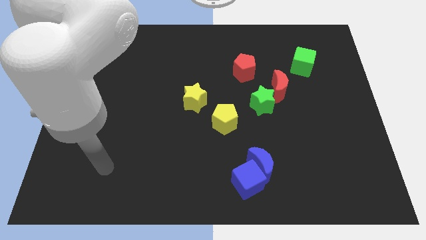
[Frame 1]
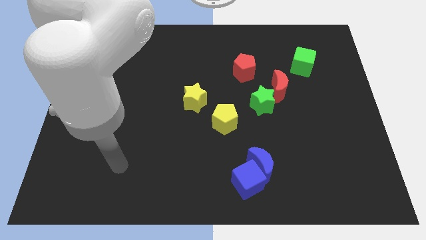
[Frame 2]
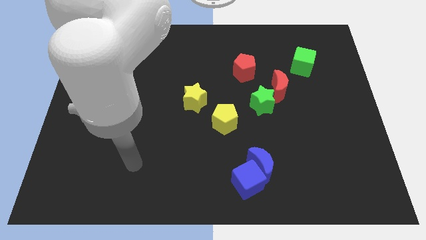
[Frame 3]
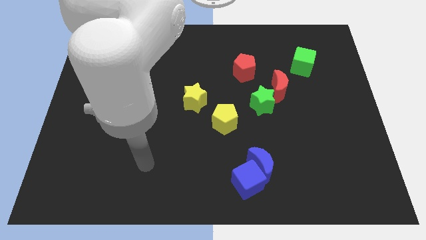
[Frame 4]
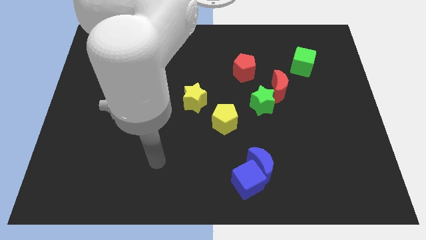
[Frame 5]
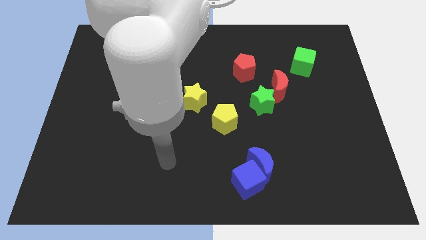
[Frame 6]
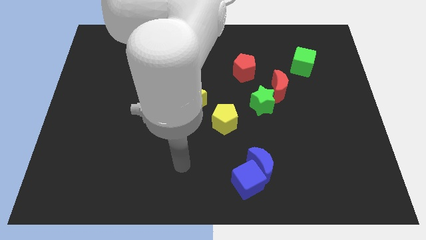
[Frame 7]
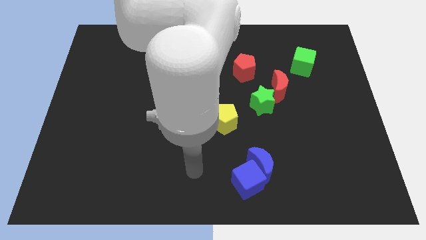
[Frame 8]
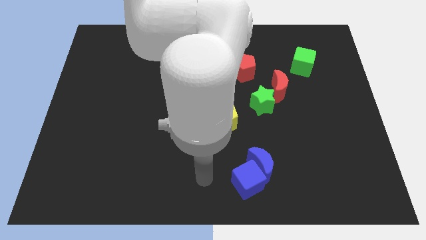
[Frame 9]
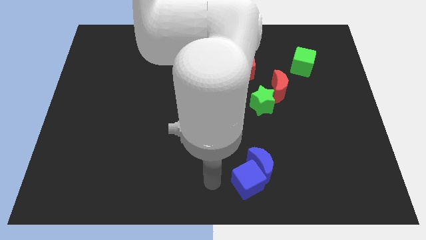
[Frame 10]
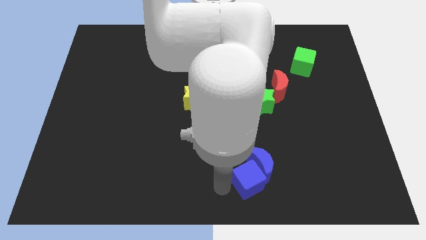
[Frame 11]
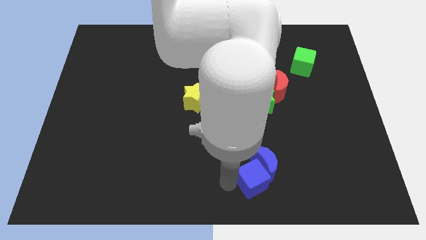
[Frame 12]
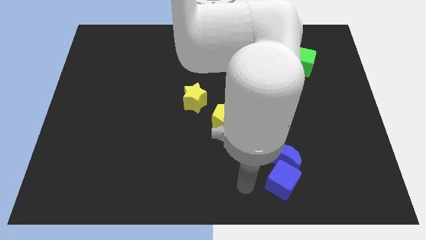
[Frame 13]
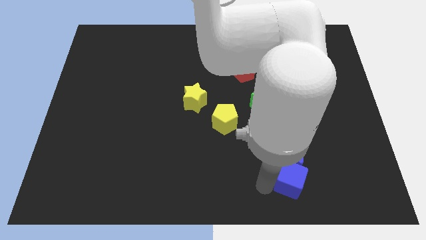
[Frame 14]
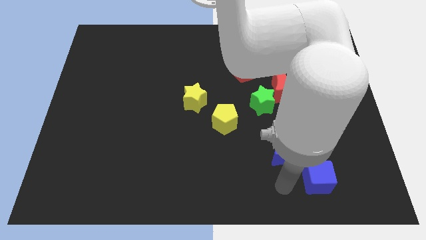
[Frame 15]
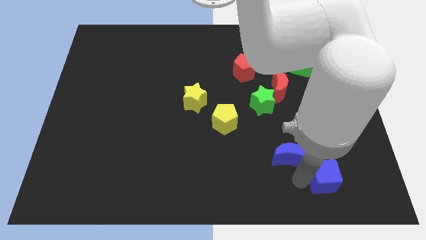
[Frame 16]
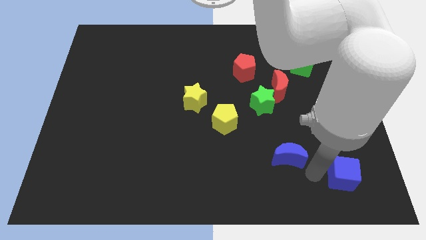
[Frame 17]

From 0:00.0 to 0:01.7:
move the blue moon away from the blue cube

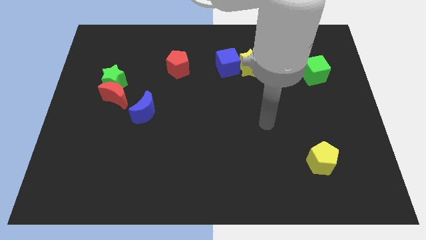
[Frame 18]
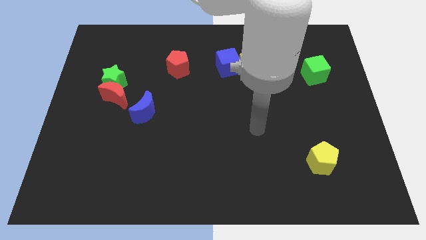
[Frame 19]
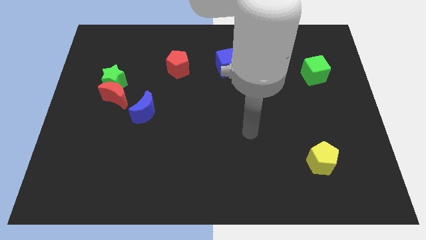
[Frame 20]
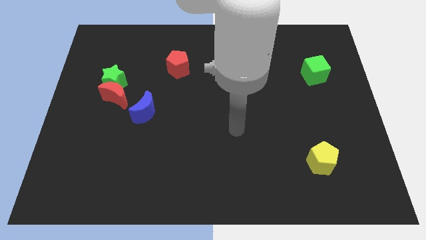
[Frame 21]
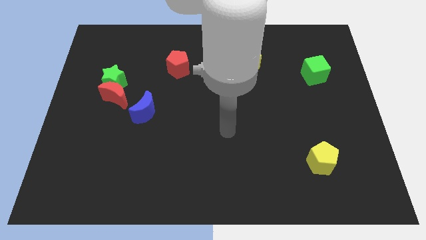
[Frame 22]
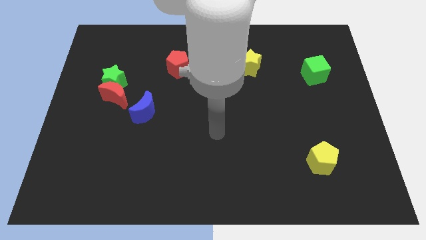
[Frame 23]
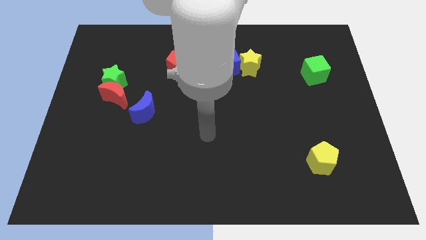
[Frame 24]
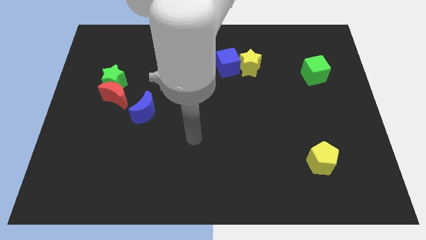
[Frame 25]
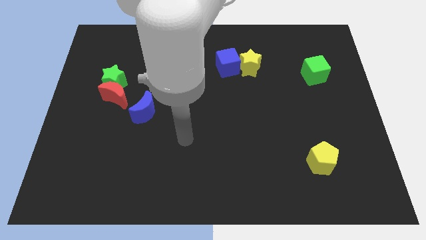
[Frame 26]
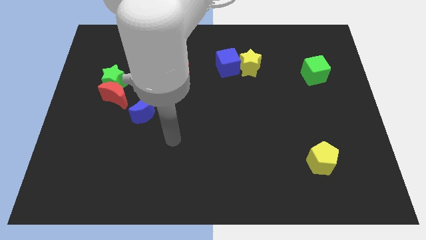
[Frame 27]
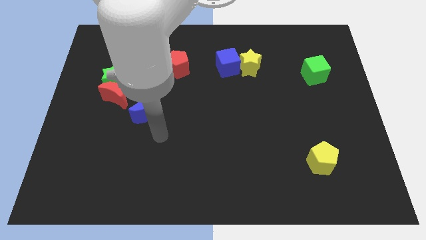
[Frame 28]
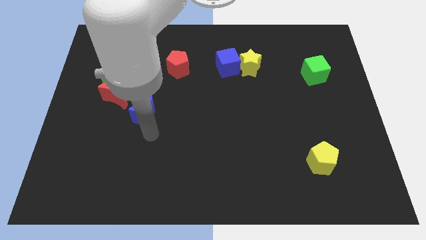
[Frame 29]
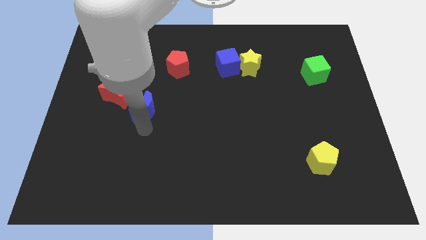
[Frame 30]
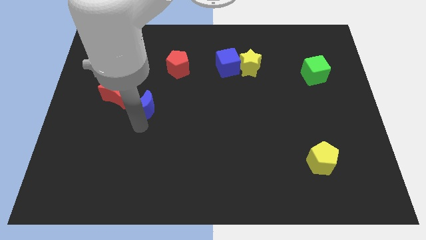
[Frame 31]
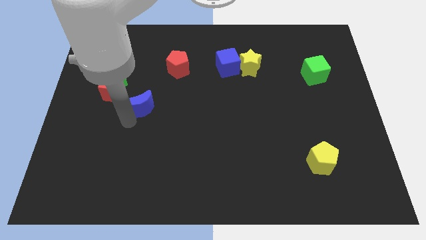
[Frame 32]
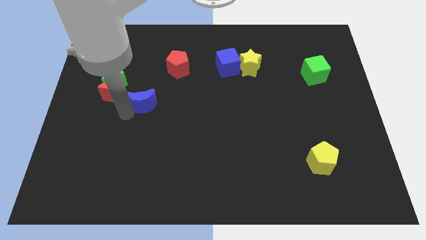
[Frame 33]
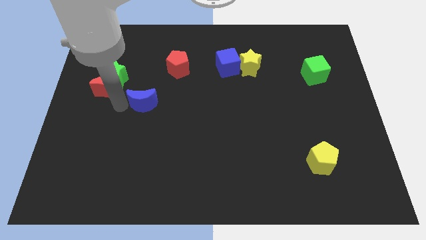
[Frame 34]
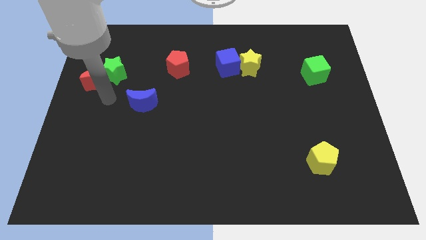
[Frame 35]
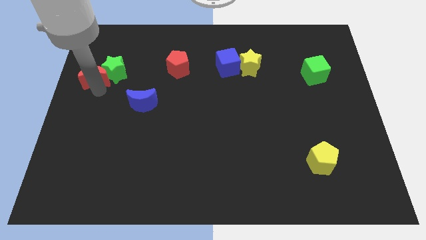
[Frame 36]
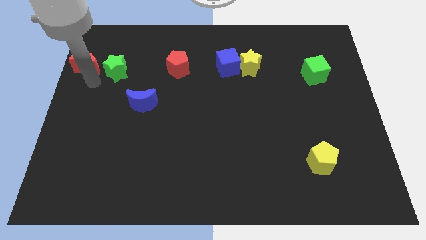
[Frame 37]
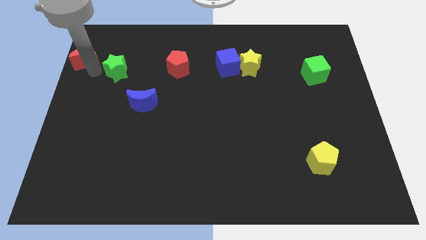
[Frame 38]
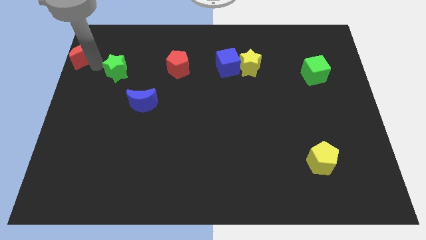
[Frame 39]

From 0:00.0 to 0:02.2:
move the green star away from the red moon

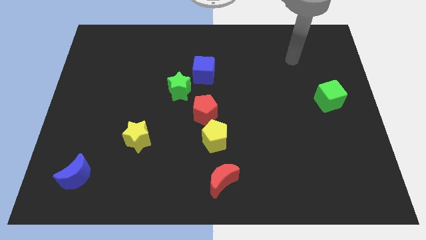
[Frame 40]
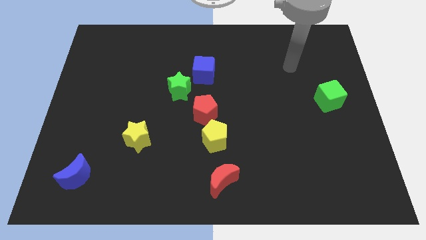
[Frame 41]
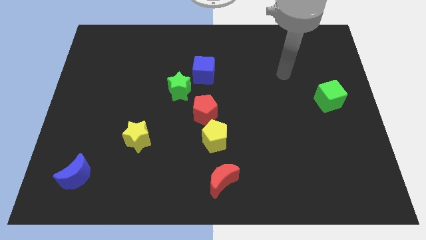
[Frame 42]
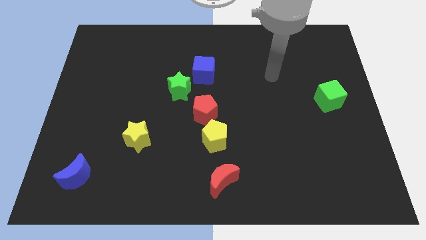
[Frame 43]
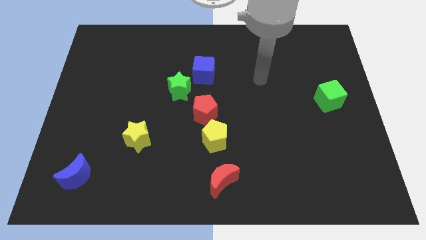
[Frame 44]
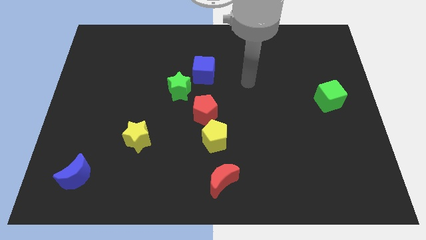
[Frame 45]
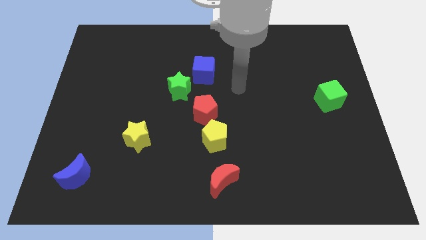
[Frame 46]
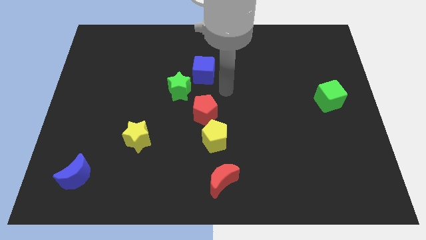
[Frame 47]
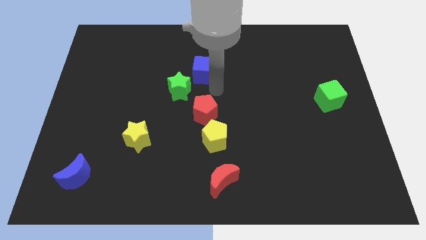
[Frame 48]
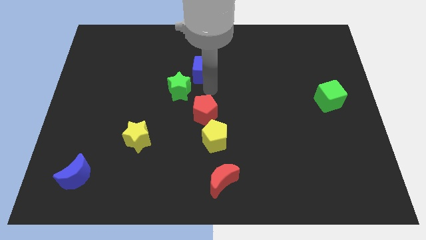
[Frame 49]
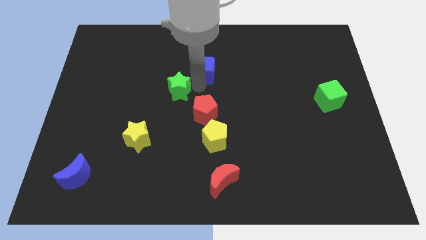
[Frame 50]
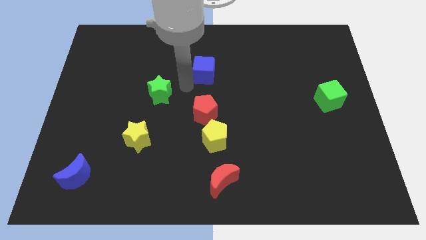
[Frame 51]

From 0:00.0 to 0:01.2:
separate the blue cube from the green star

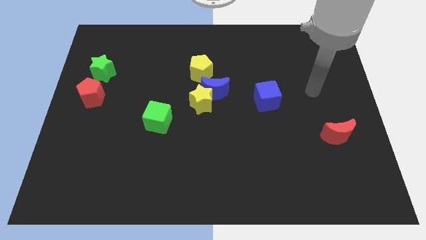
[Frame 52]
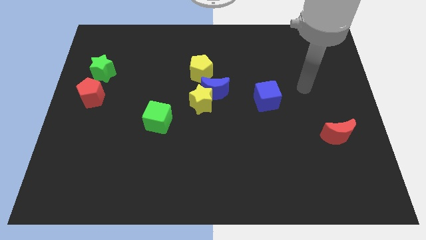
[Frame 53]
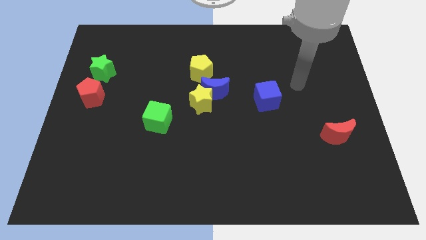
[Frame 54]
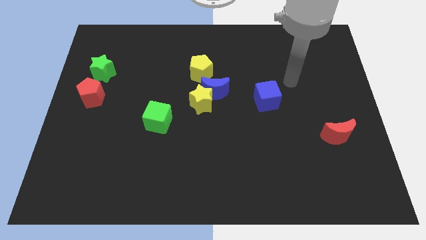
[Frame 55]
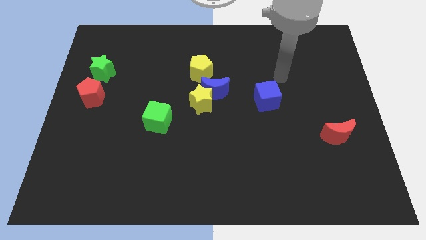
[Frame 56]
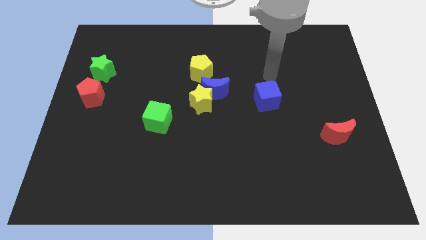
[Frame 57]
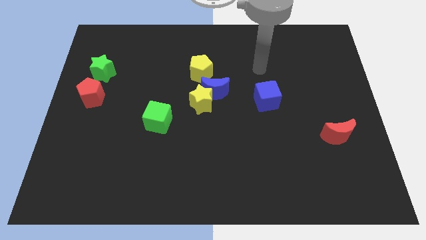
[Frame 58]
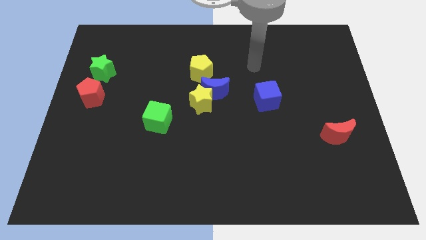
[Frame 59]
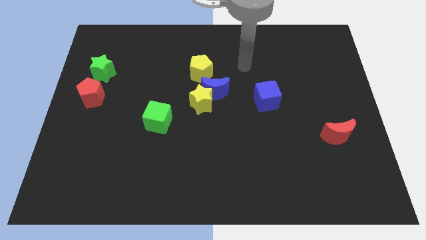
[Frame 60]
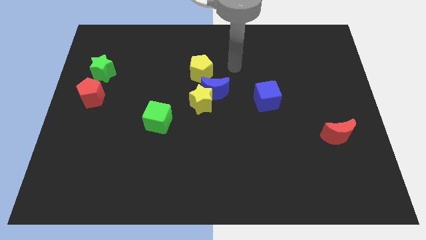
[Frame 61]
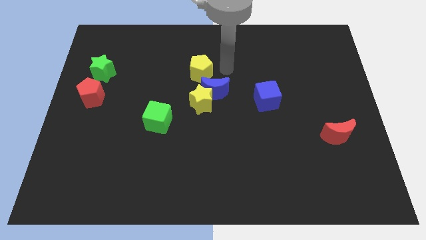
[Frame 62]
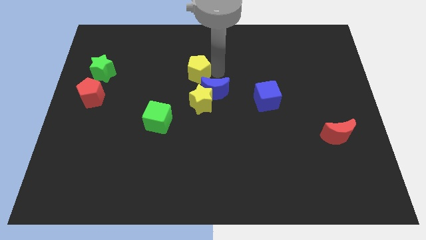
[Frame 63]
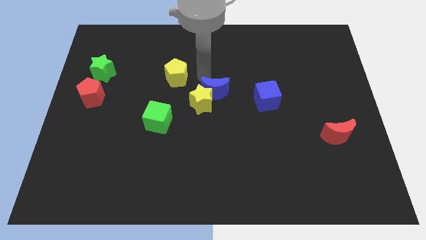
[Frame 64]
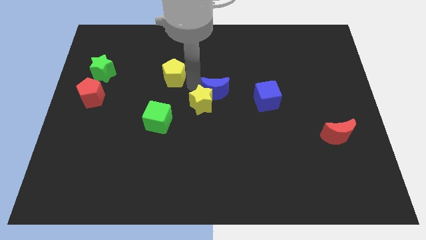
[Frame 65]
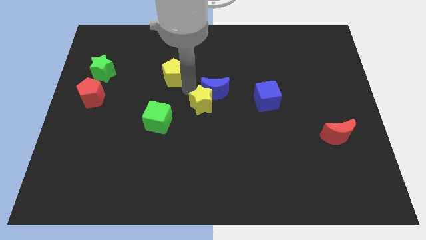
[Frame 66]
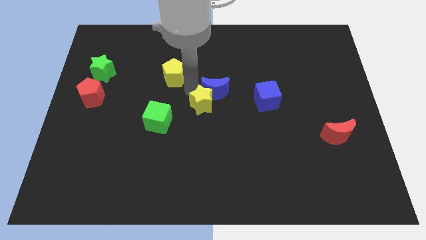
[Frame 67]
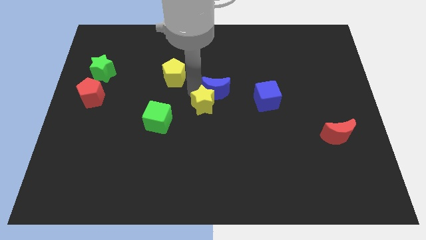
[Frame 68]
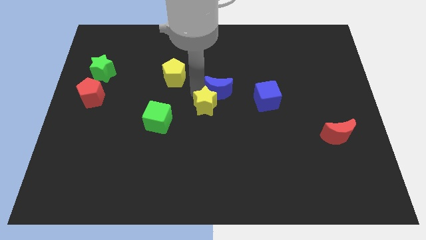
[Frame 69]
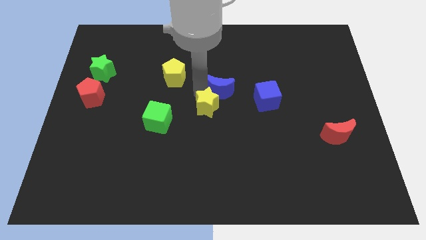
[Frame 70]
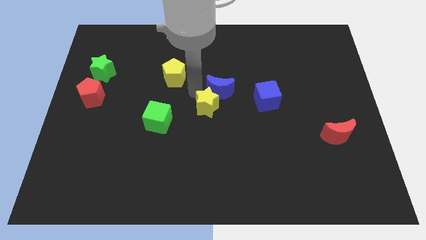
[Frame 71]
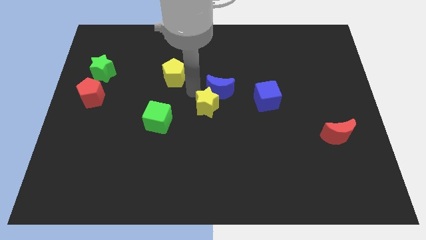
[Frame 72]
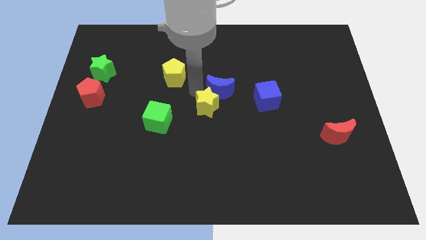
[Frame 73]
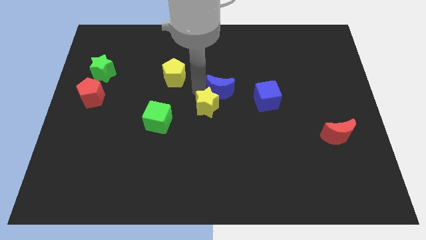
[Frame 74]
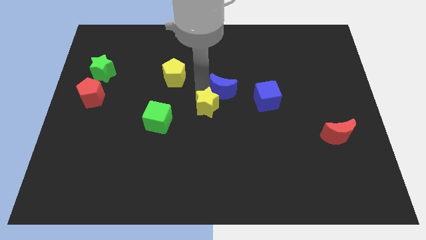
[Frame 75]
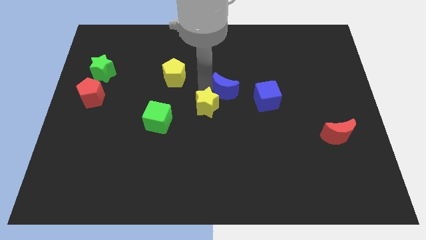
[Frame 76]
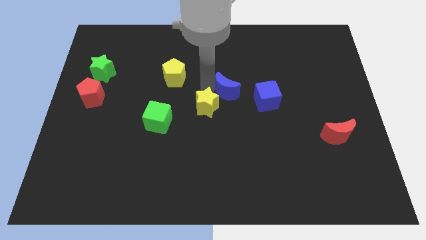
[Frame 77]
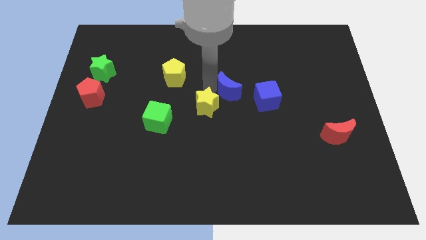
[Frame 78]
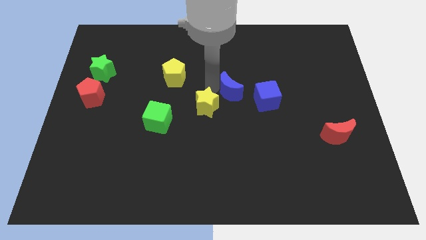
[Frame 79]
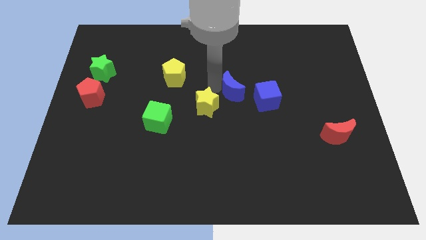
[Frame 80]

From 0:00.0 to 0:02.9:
move the blue moon away from the yellow star and yellow pentagon

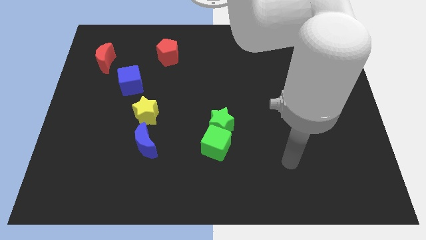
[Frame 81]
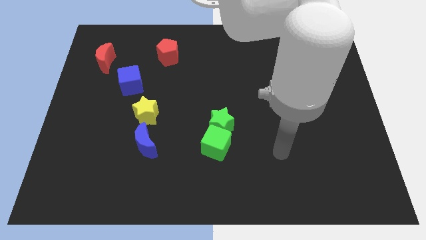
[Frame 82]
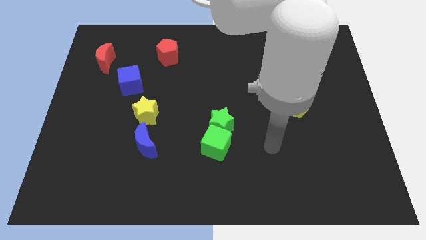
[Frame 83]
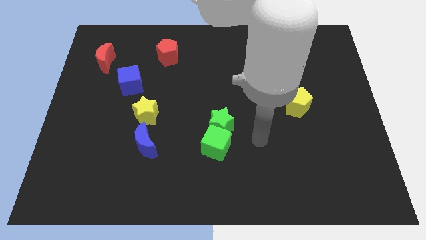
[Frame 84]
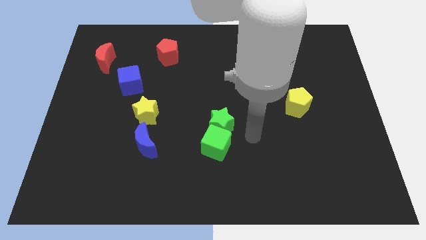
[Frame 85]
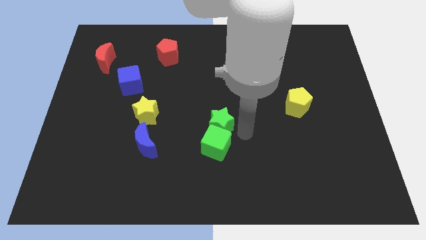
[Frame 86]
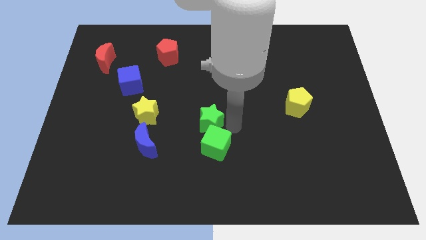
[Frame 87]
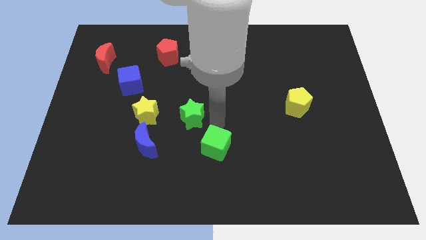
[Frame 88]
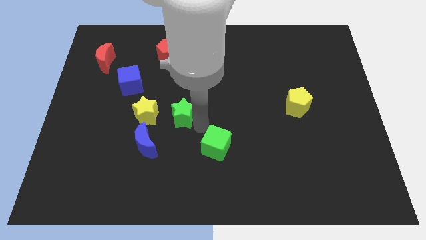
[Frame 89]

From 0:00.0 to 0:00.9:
separate the green cube from the green star

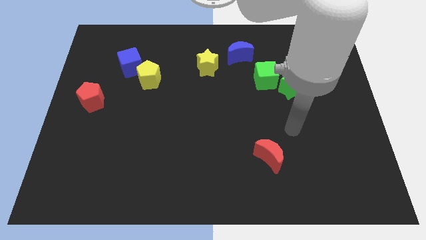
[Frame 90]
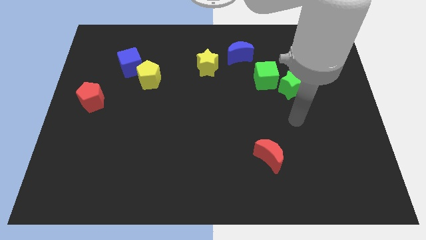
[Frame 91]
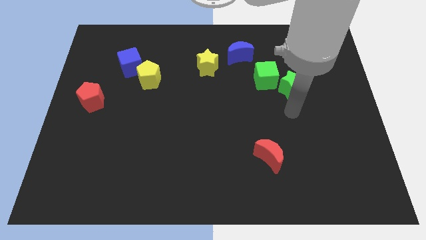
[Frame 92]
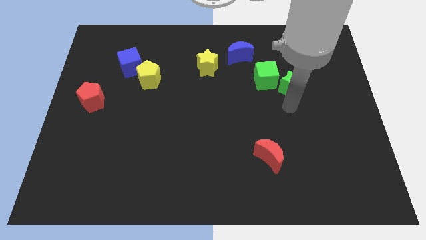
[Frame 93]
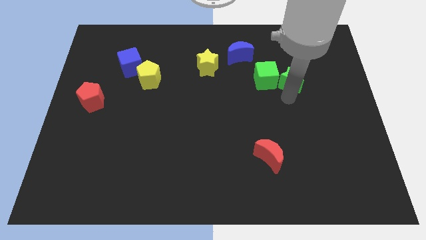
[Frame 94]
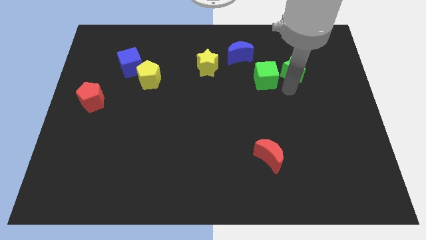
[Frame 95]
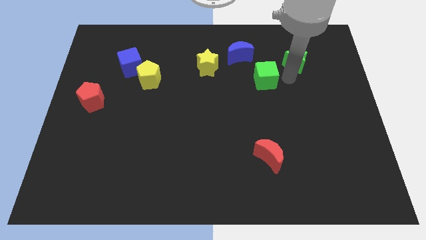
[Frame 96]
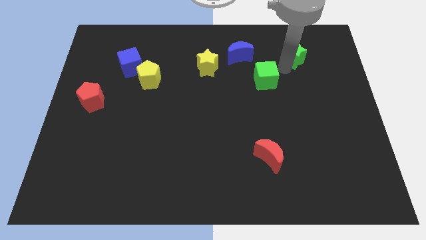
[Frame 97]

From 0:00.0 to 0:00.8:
move the green cube away from the green star
